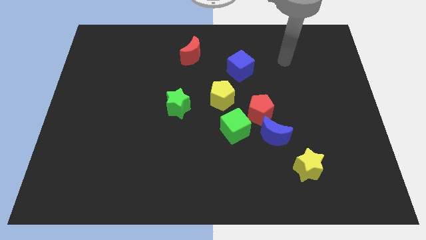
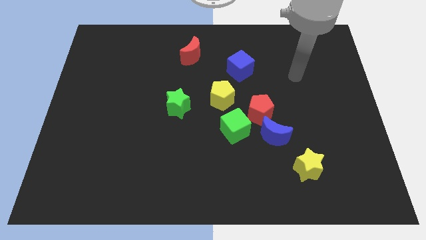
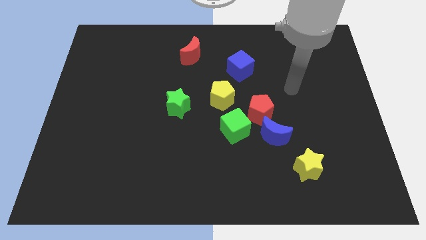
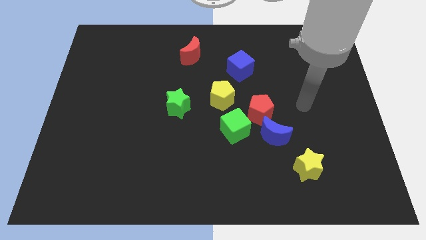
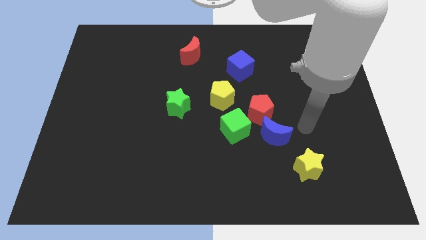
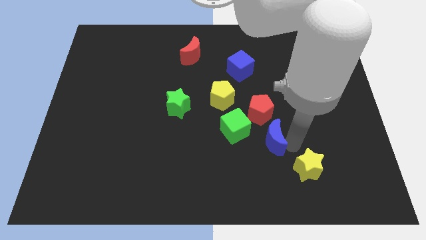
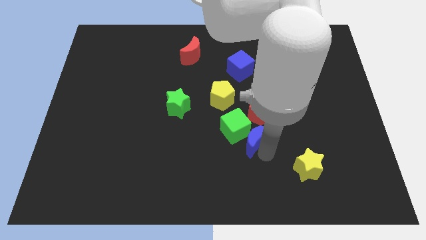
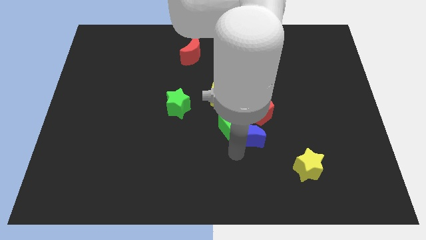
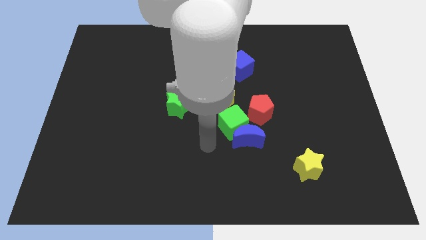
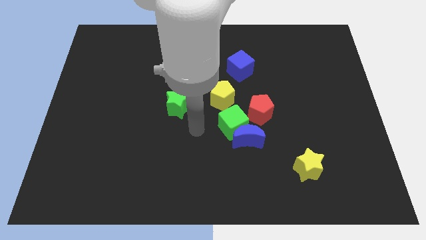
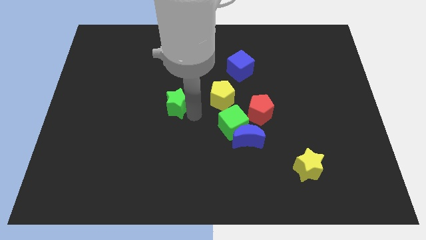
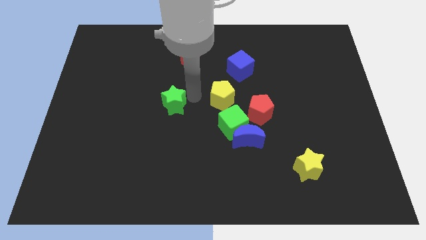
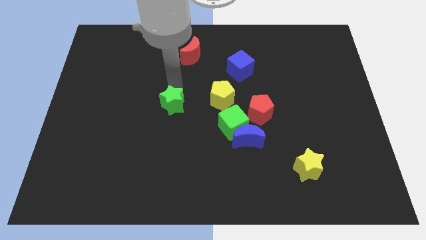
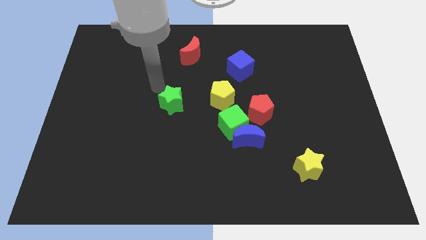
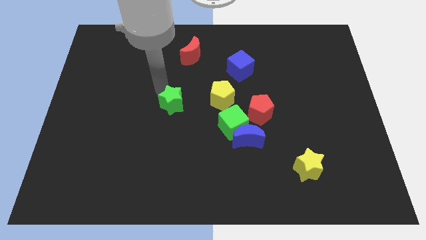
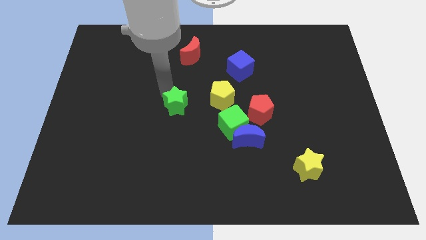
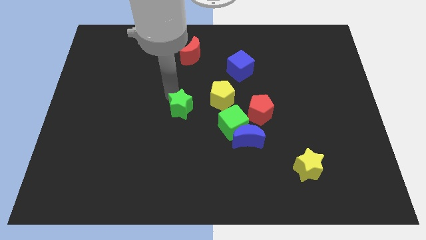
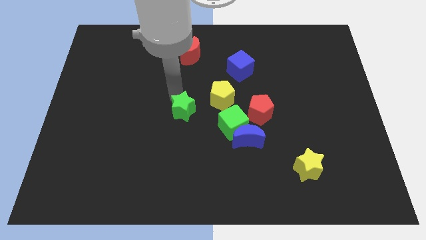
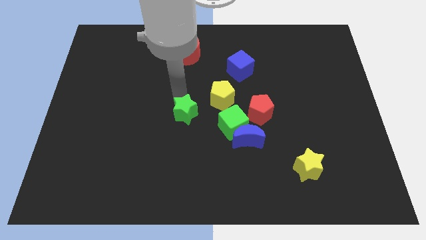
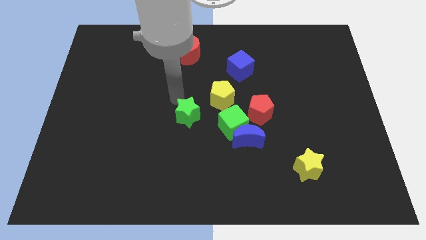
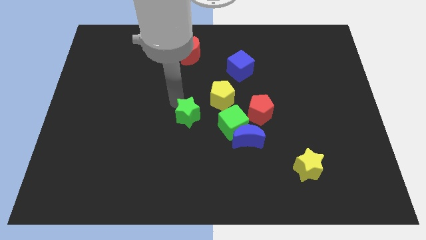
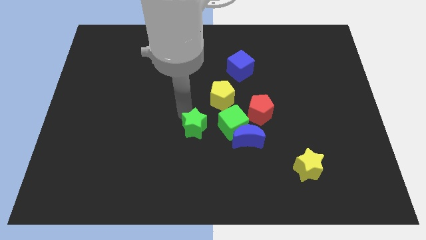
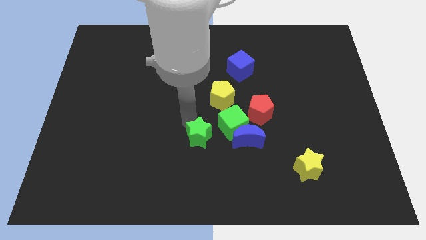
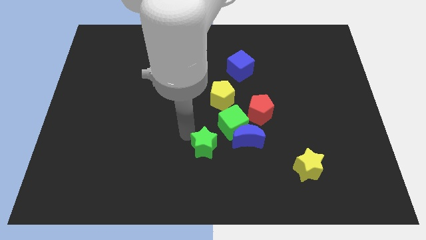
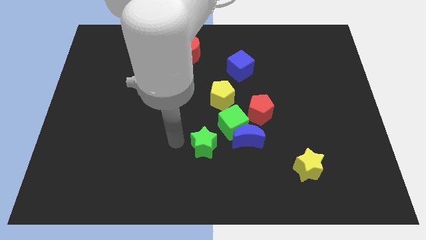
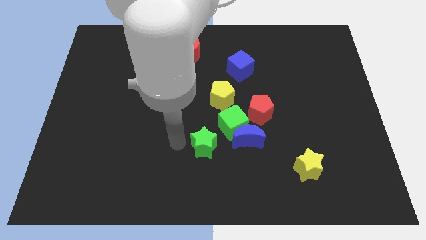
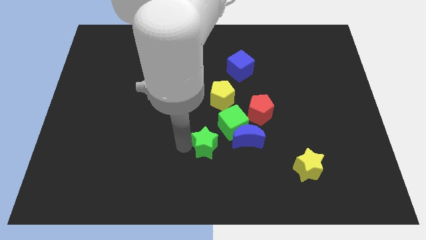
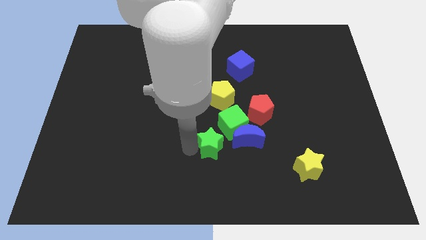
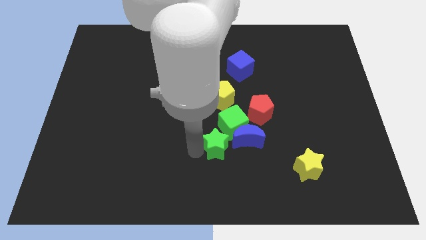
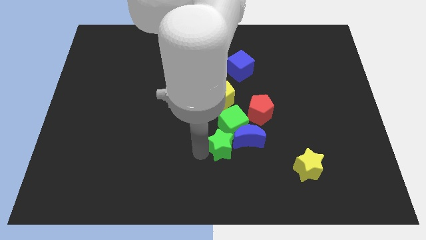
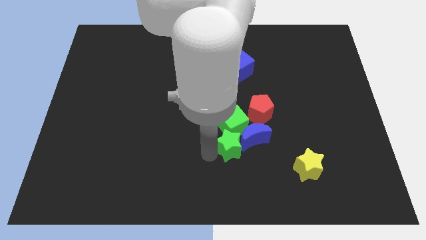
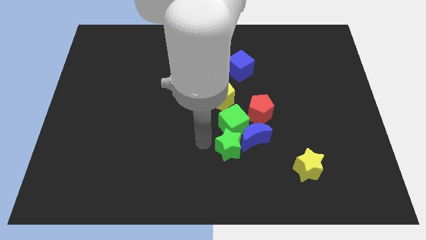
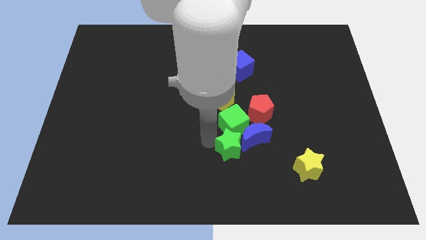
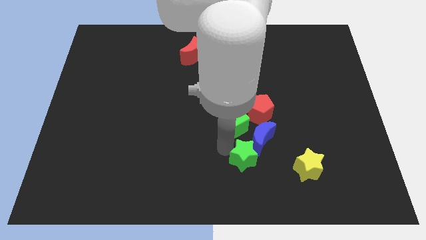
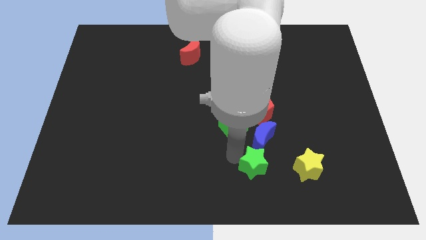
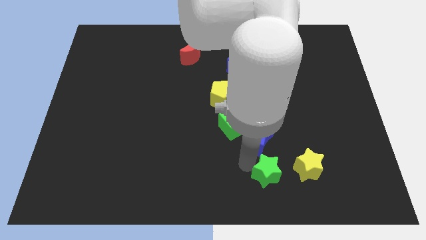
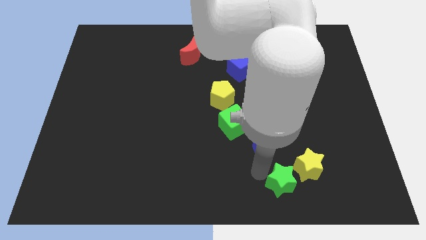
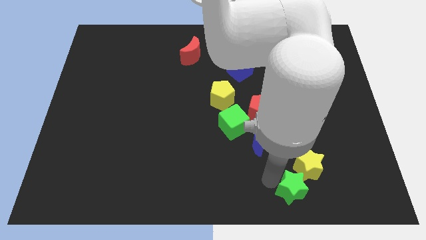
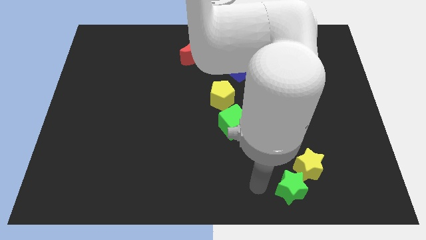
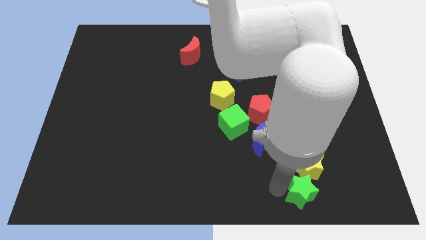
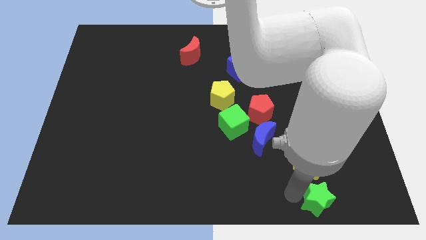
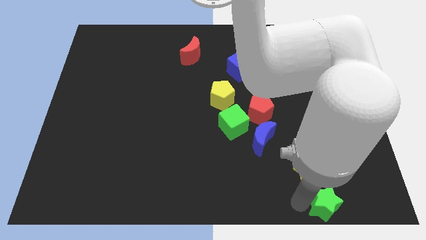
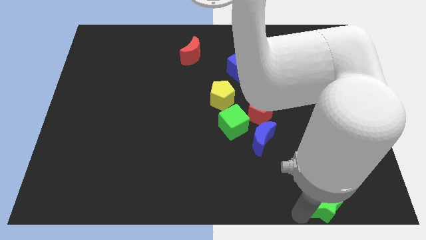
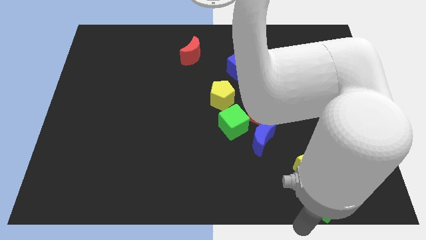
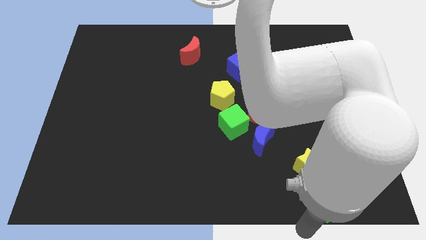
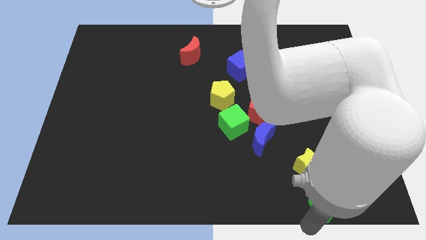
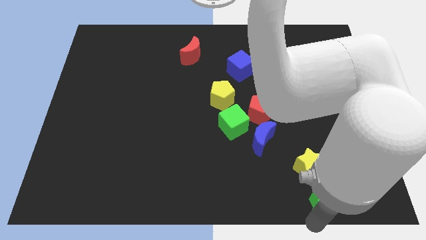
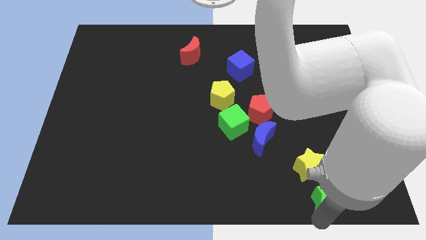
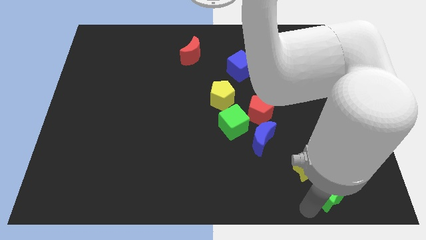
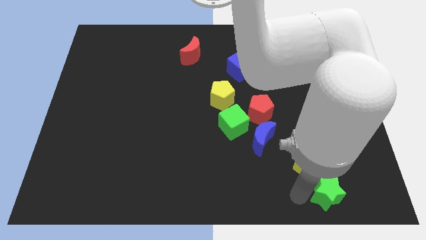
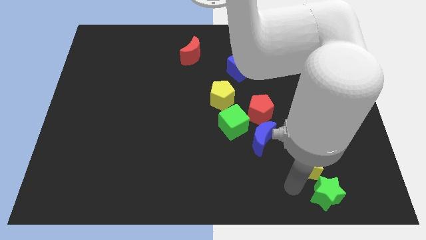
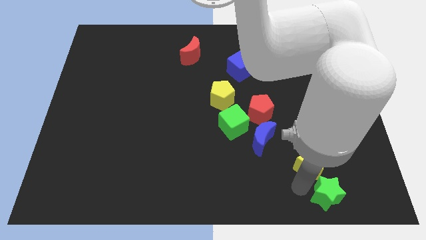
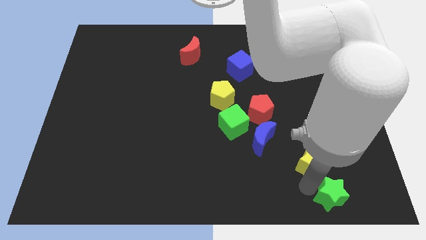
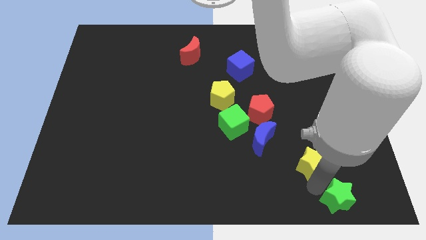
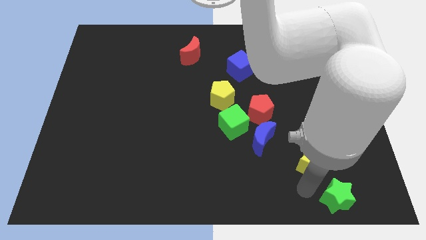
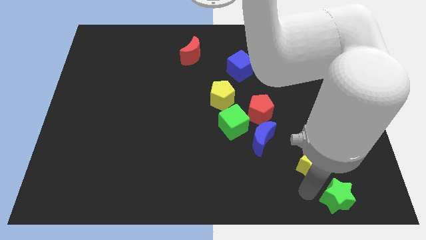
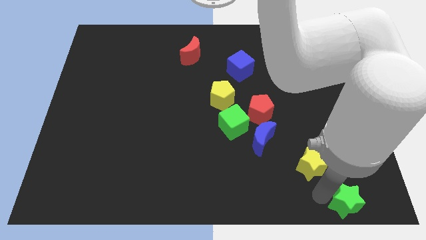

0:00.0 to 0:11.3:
put the green star to the bottom right corner

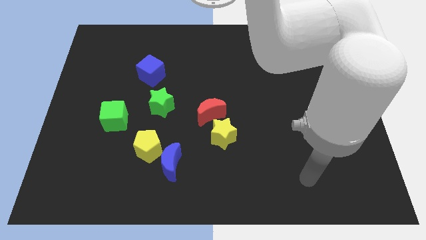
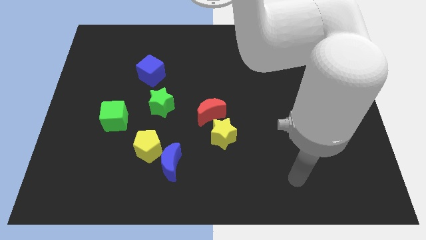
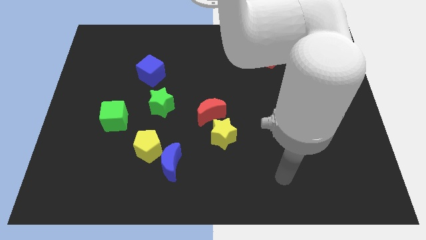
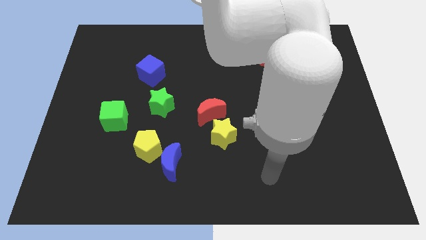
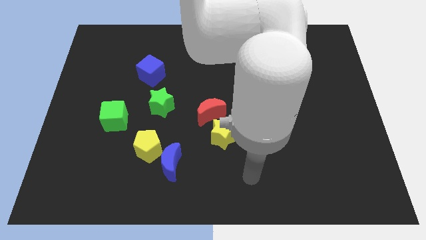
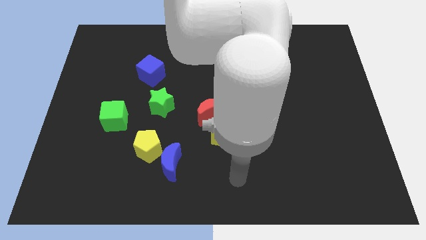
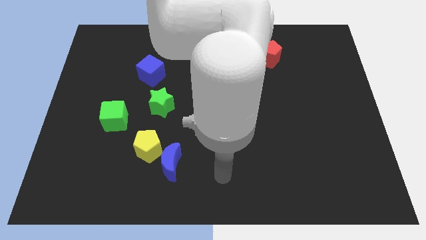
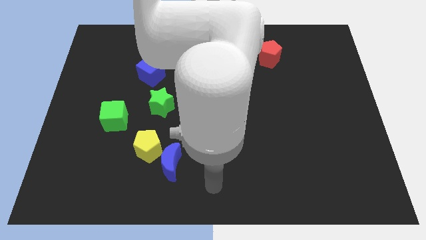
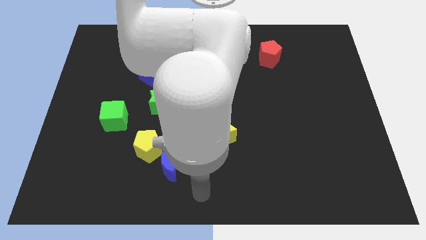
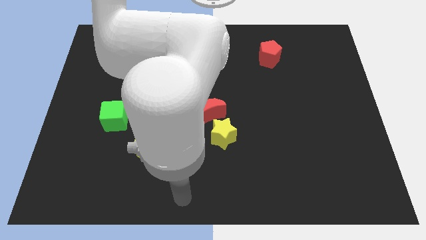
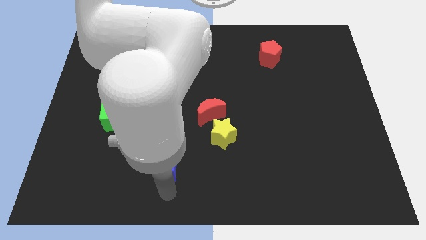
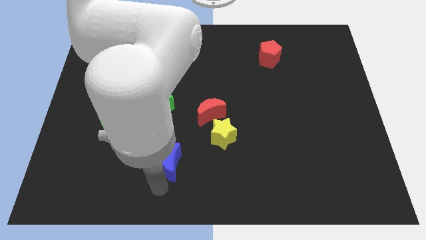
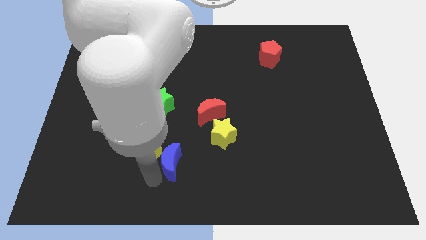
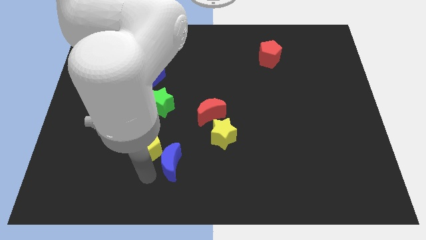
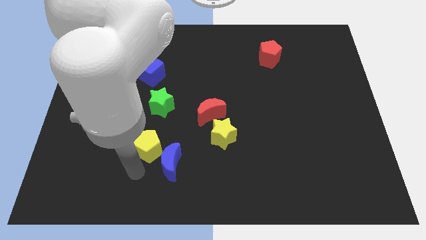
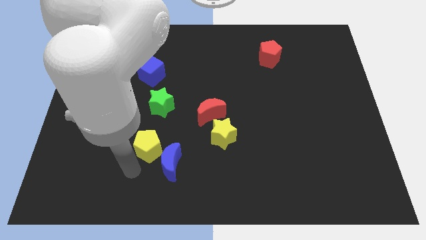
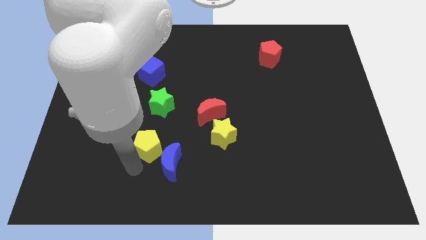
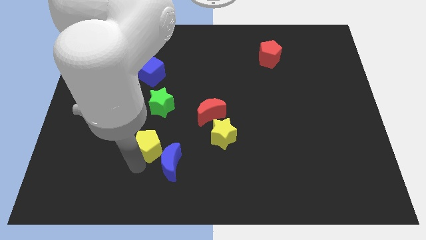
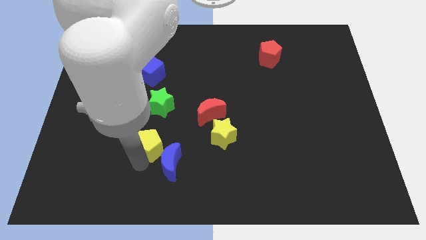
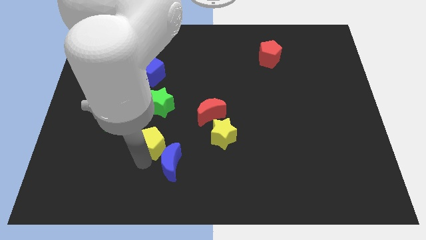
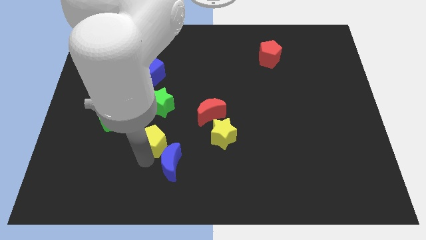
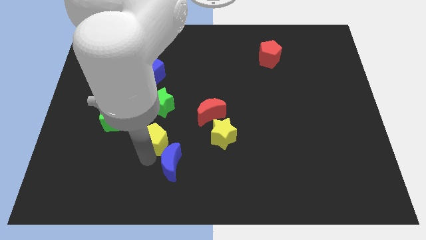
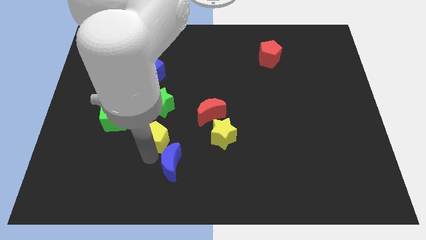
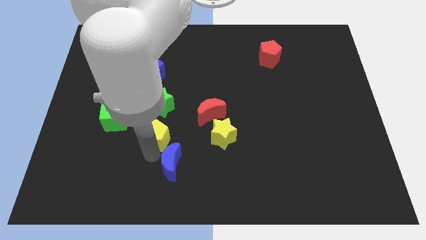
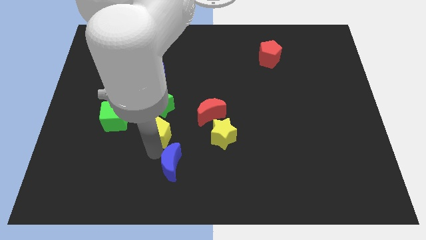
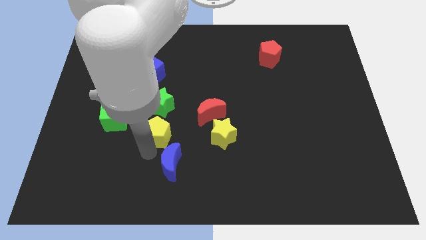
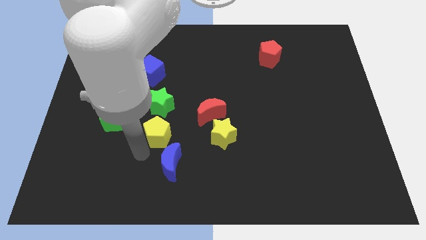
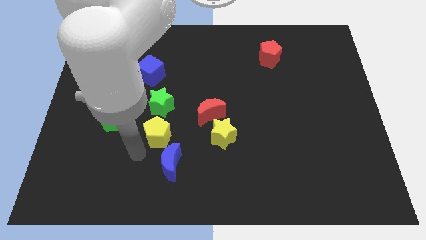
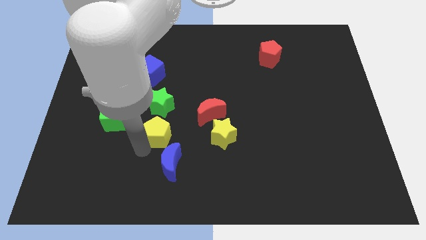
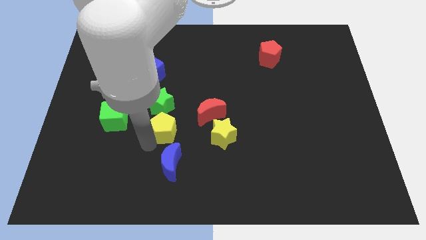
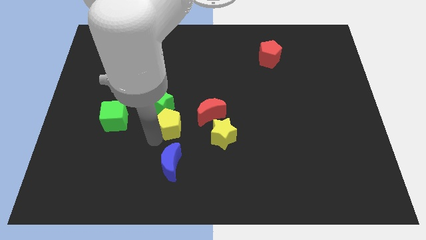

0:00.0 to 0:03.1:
push the yellow pentagon to the middle of the board
